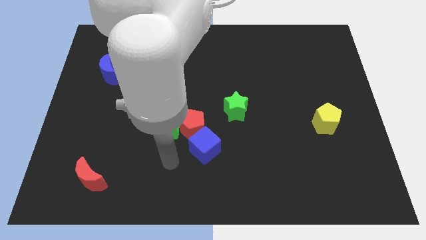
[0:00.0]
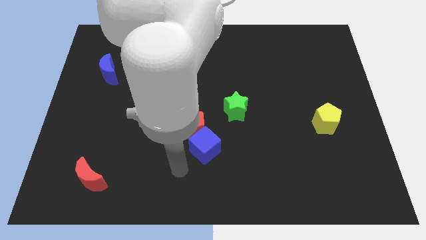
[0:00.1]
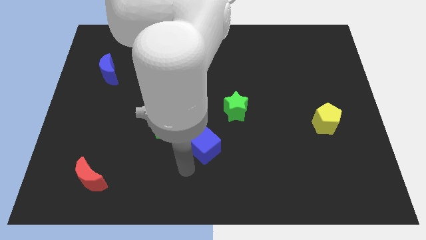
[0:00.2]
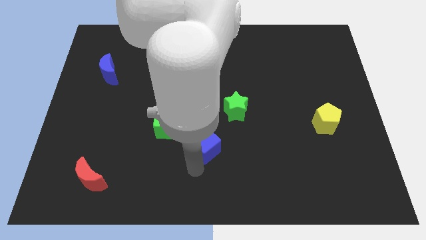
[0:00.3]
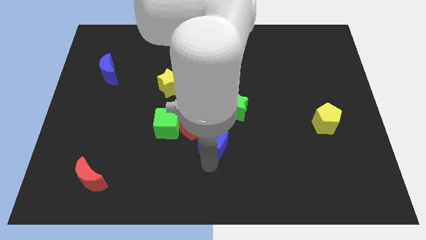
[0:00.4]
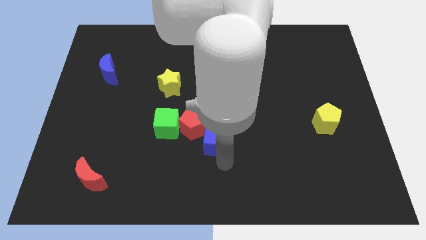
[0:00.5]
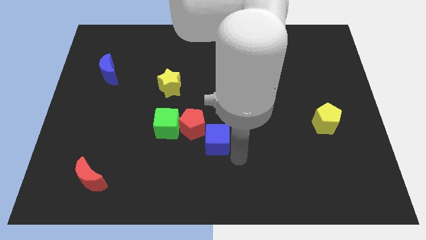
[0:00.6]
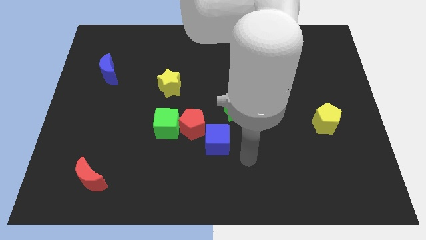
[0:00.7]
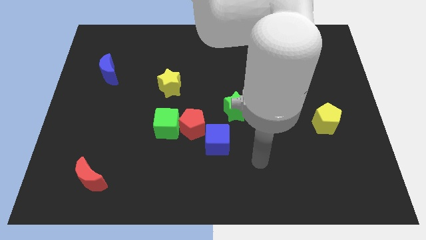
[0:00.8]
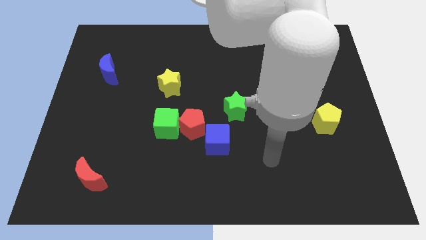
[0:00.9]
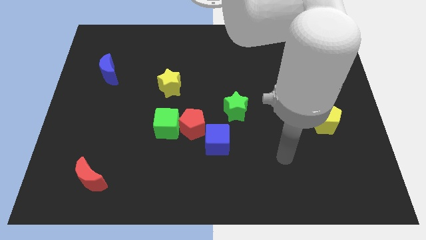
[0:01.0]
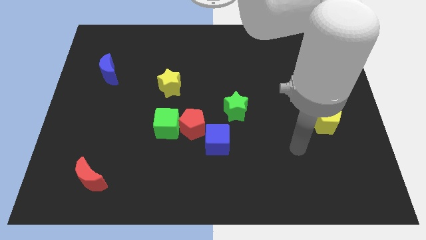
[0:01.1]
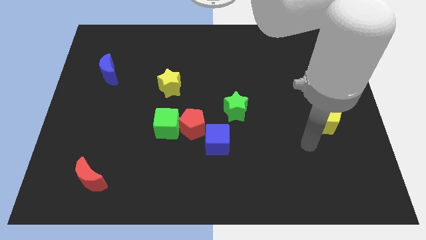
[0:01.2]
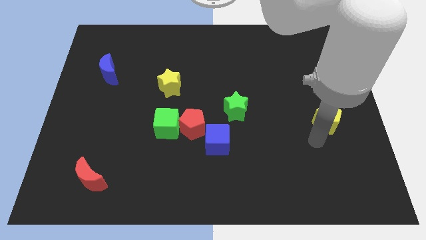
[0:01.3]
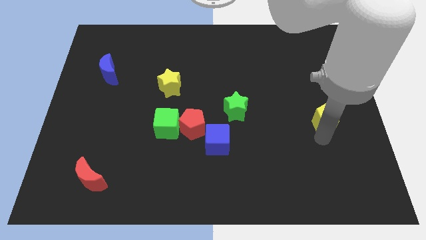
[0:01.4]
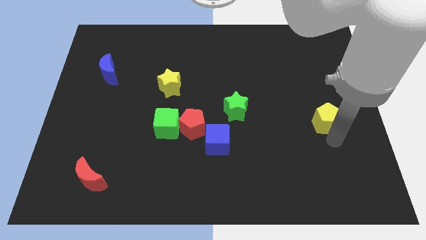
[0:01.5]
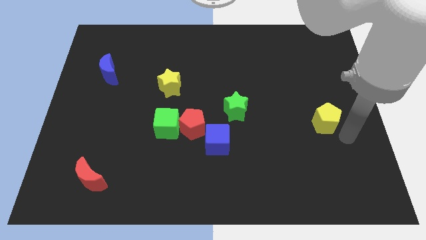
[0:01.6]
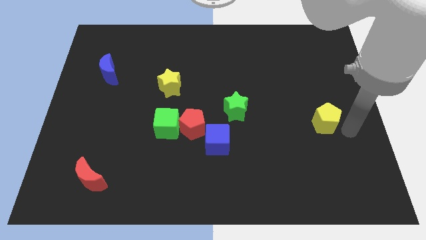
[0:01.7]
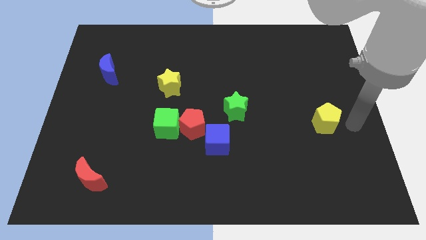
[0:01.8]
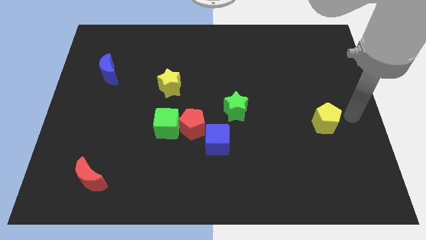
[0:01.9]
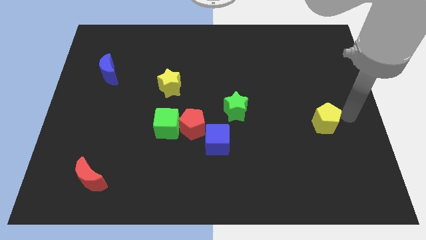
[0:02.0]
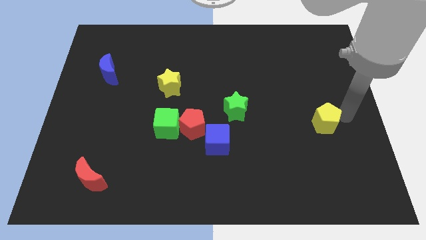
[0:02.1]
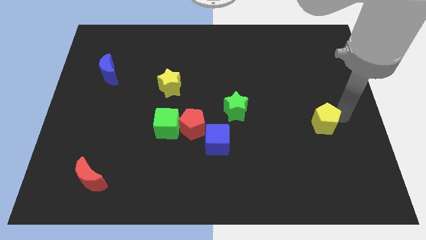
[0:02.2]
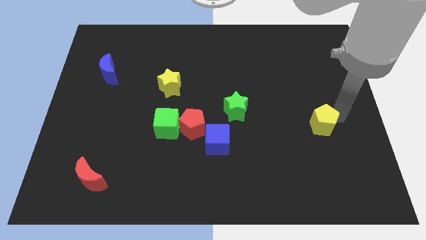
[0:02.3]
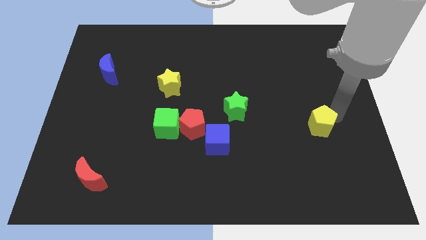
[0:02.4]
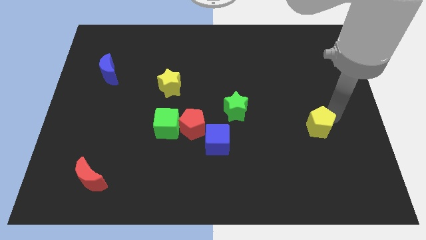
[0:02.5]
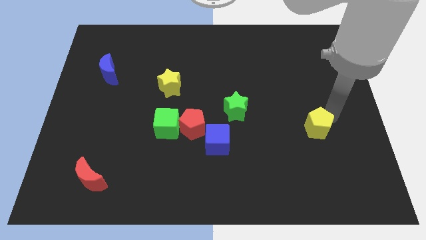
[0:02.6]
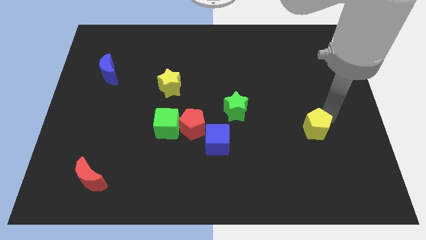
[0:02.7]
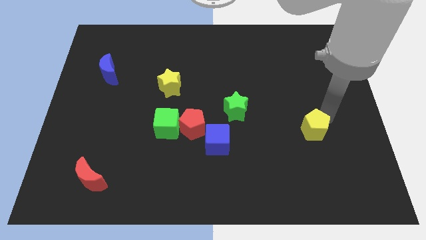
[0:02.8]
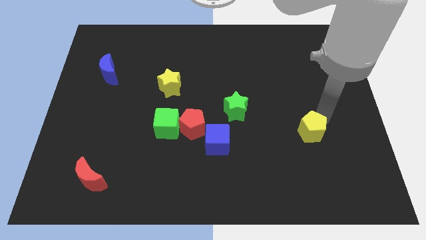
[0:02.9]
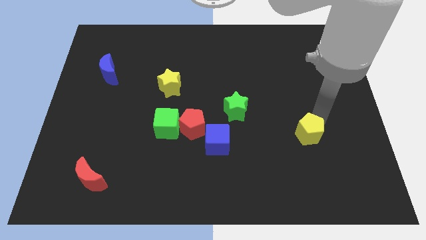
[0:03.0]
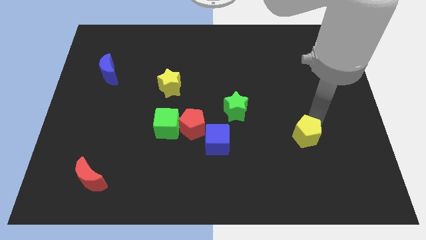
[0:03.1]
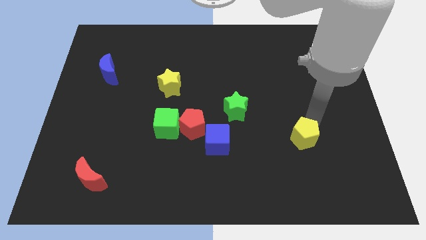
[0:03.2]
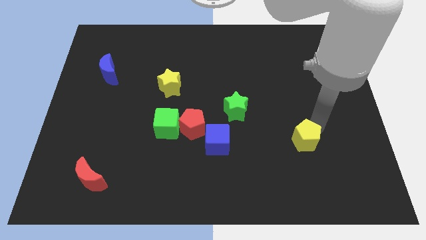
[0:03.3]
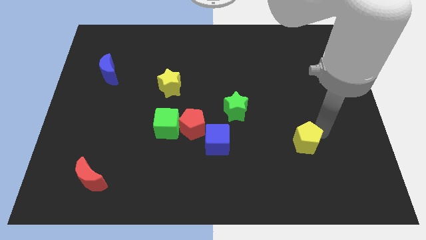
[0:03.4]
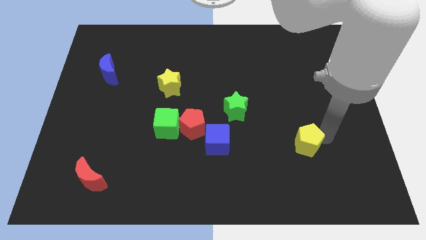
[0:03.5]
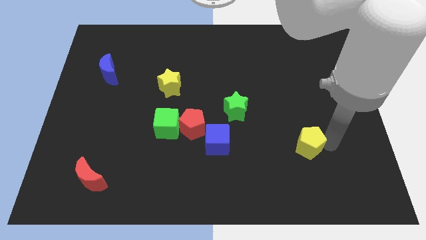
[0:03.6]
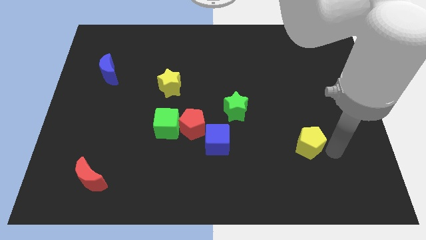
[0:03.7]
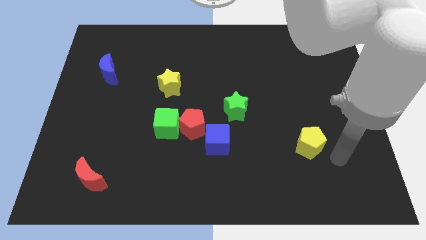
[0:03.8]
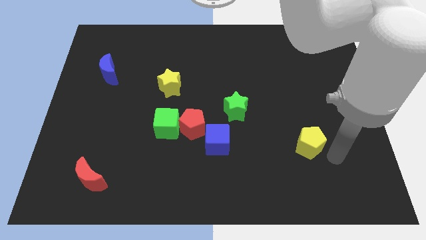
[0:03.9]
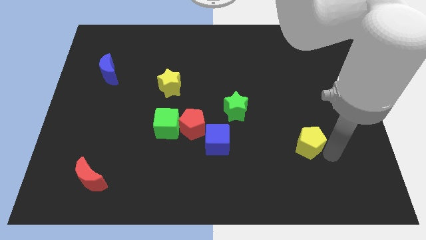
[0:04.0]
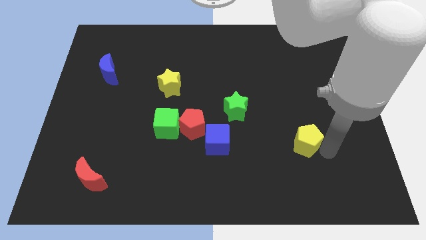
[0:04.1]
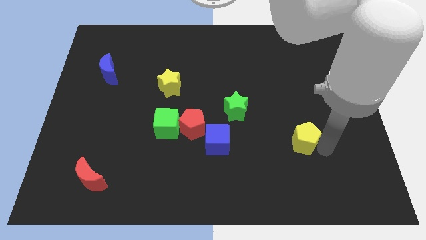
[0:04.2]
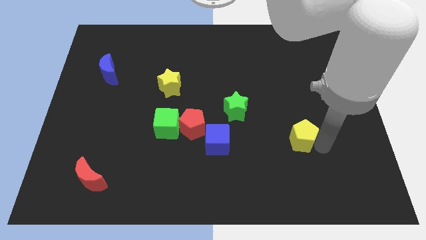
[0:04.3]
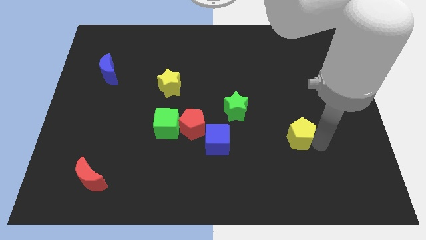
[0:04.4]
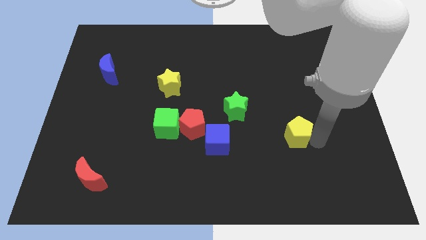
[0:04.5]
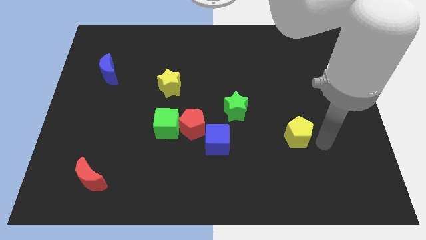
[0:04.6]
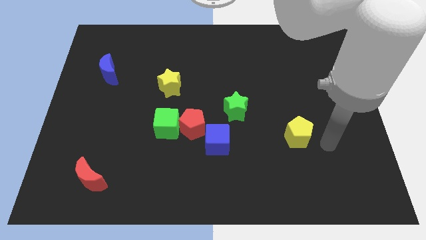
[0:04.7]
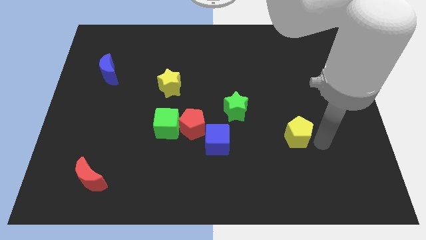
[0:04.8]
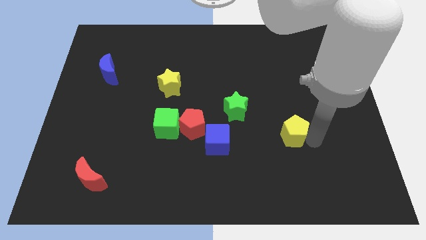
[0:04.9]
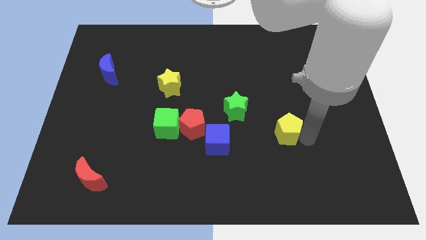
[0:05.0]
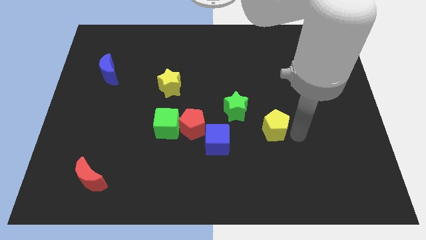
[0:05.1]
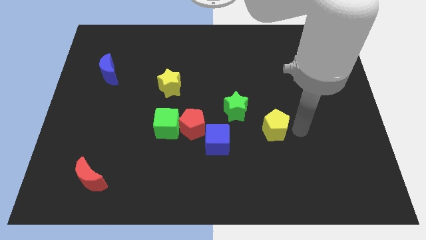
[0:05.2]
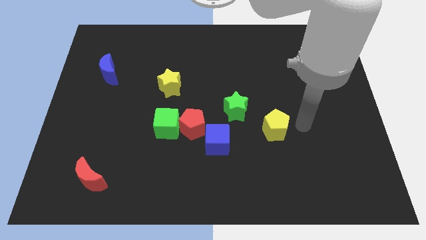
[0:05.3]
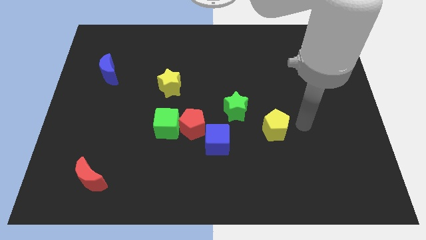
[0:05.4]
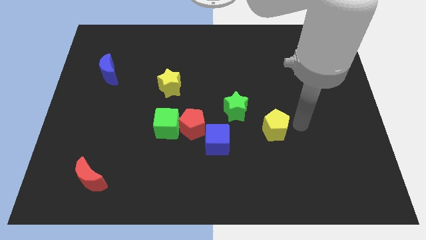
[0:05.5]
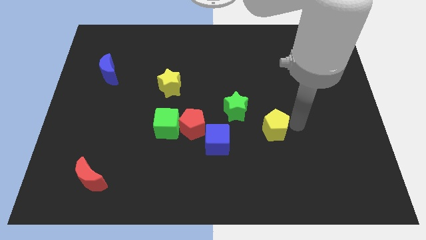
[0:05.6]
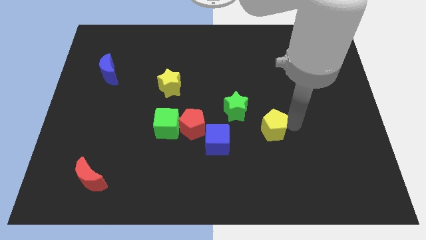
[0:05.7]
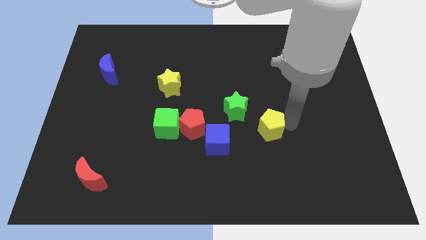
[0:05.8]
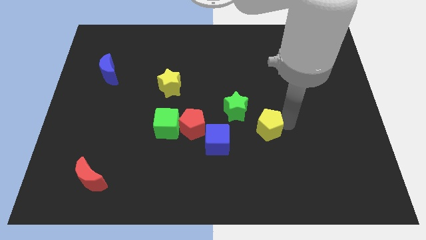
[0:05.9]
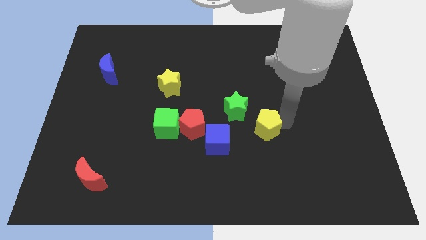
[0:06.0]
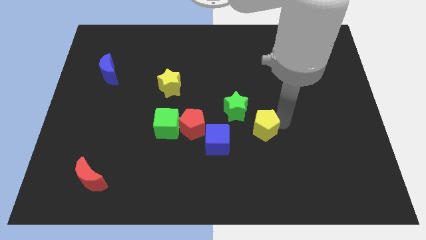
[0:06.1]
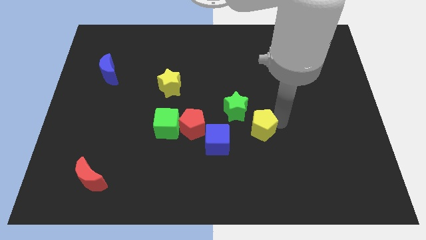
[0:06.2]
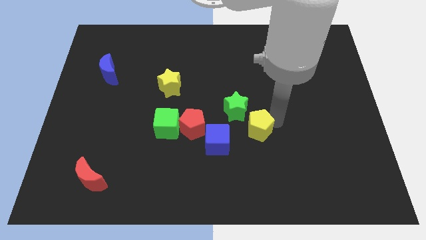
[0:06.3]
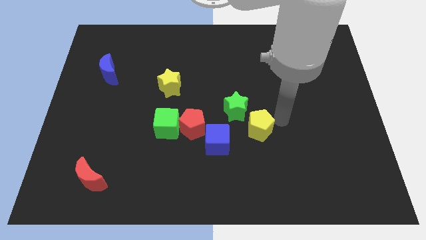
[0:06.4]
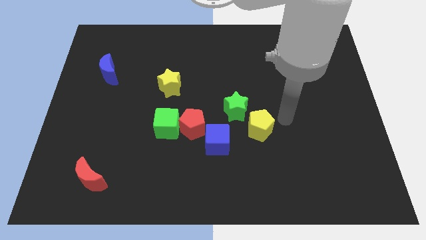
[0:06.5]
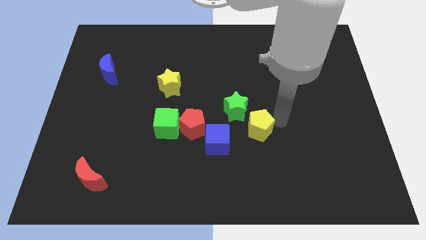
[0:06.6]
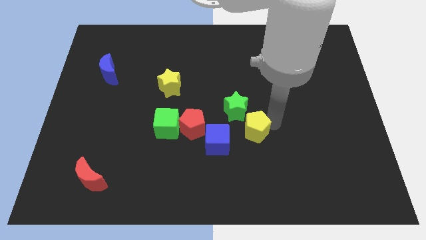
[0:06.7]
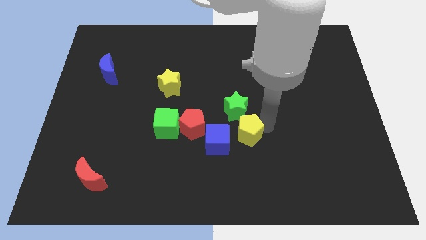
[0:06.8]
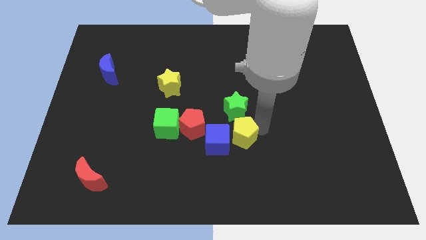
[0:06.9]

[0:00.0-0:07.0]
push the yellow pentagon close to the blue cube
